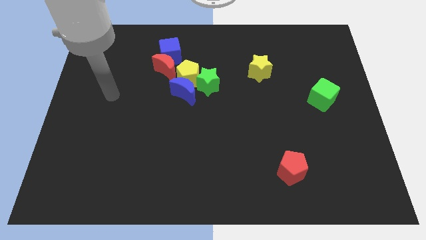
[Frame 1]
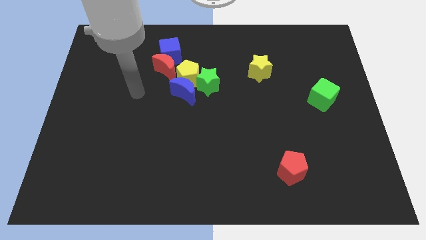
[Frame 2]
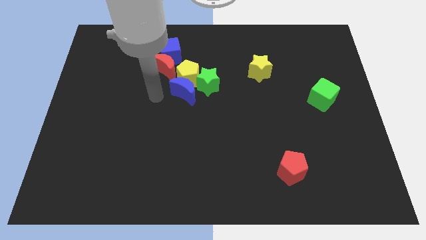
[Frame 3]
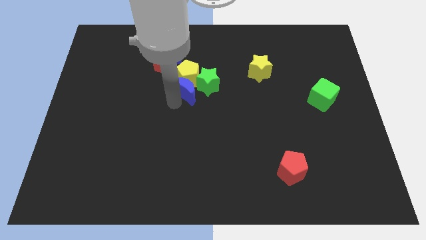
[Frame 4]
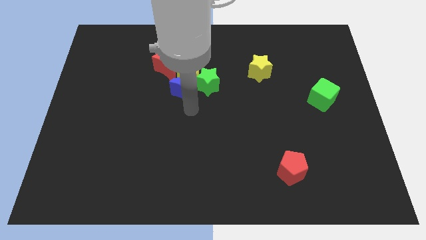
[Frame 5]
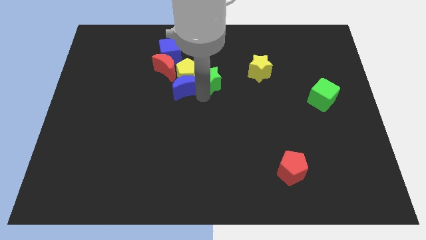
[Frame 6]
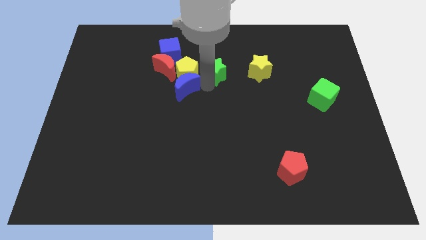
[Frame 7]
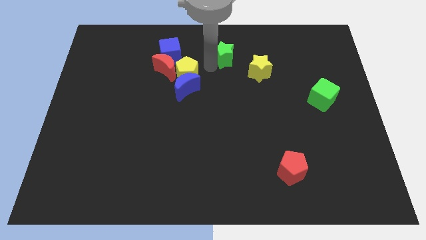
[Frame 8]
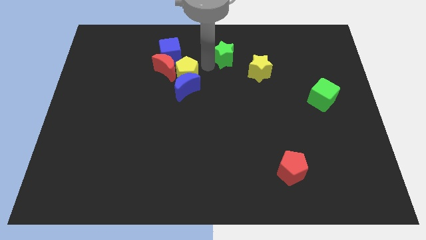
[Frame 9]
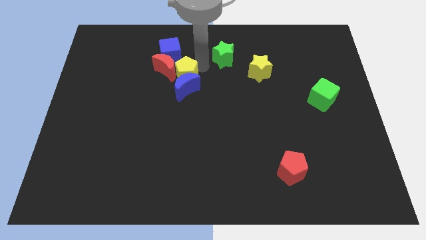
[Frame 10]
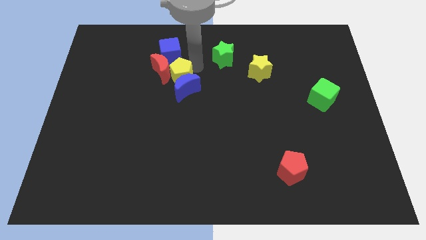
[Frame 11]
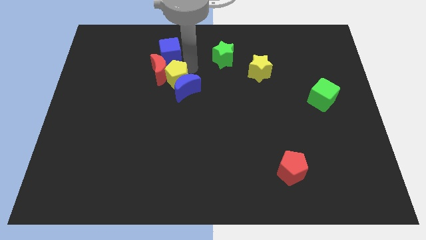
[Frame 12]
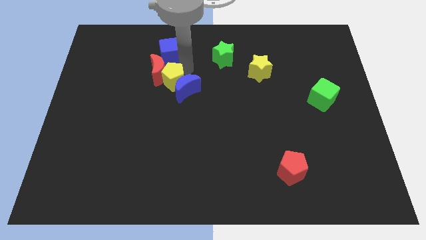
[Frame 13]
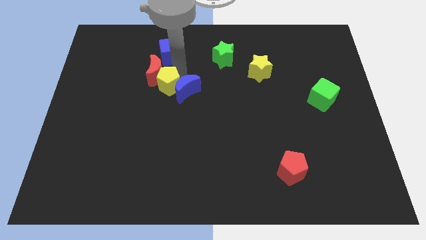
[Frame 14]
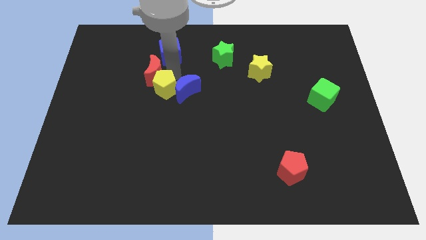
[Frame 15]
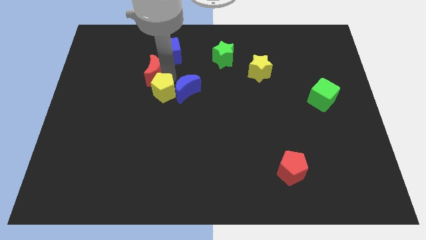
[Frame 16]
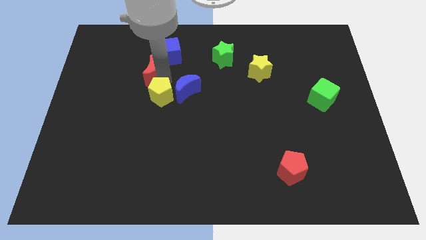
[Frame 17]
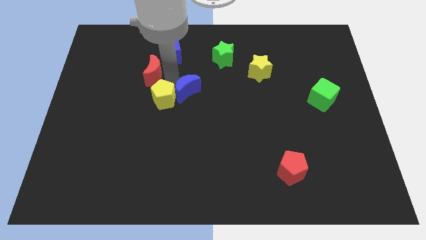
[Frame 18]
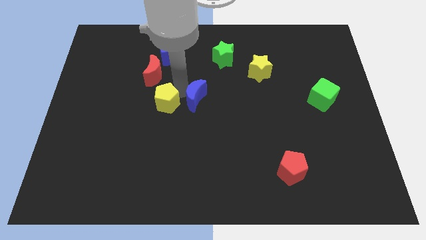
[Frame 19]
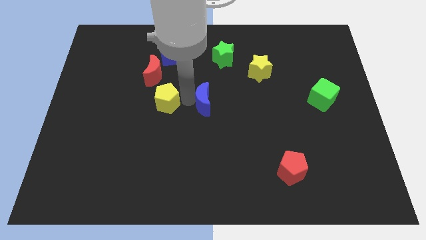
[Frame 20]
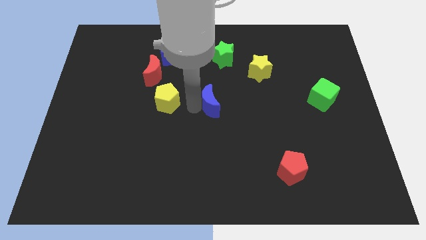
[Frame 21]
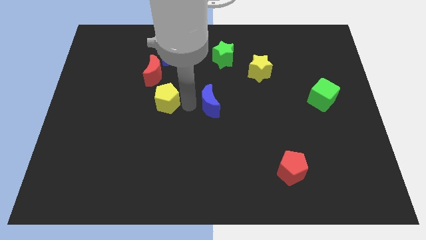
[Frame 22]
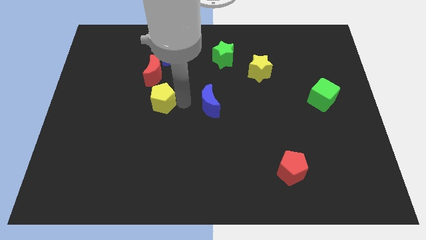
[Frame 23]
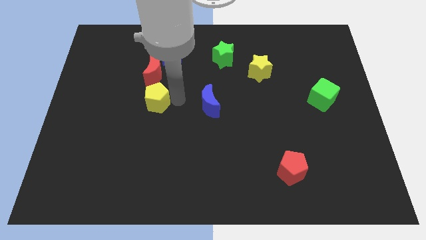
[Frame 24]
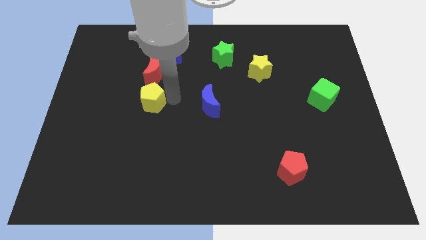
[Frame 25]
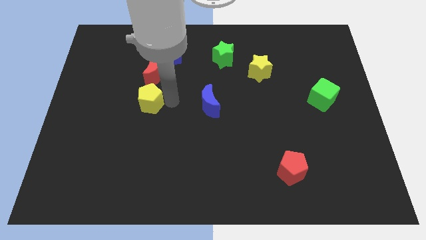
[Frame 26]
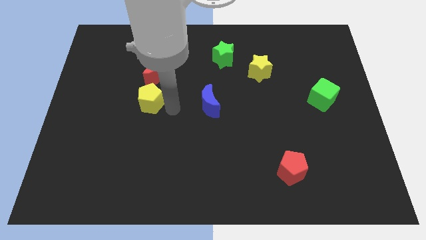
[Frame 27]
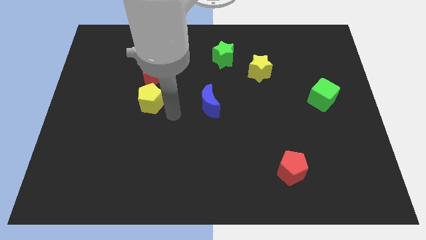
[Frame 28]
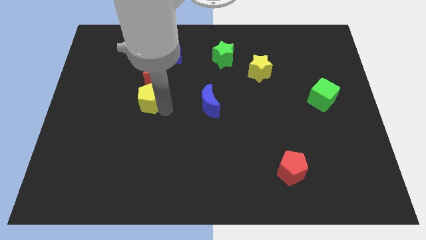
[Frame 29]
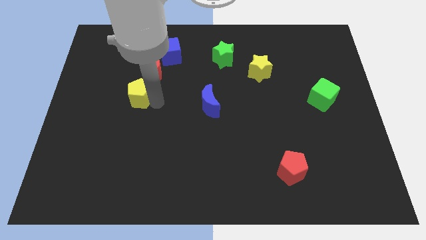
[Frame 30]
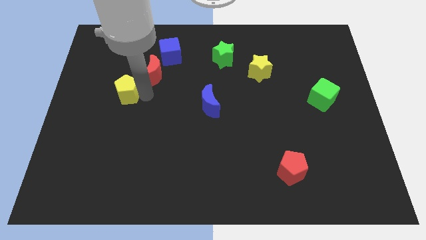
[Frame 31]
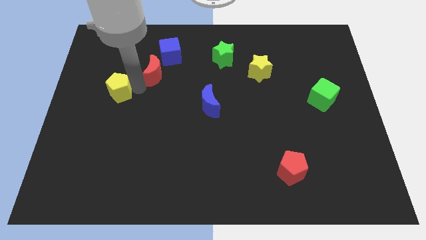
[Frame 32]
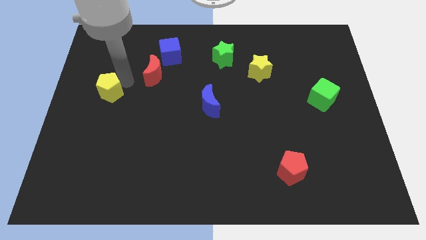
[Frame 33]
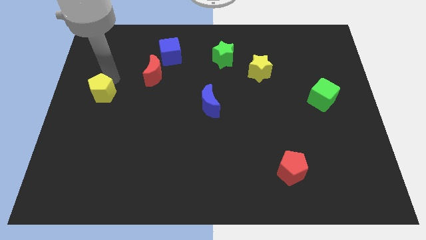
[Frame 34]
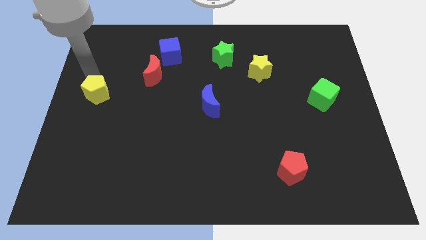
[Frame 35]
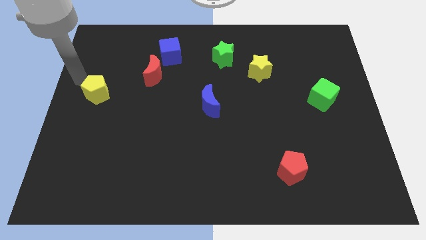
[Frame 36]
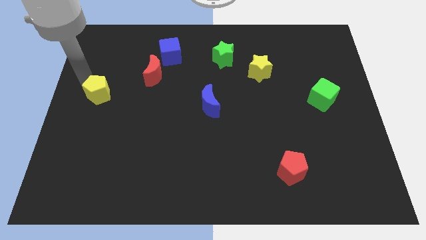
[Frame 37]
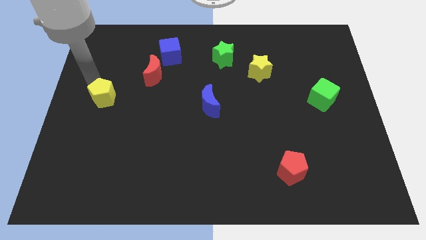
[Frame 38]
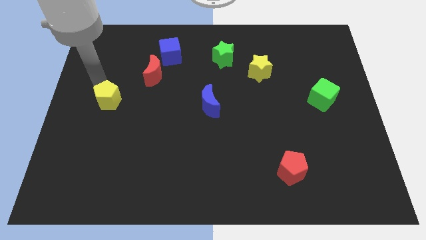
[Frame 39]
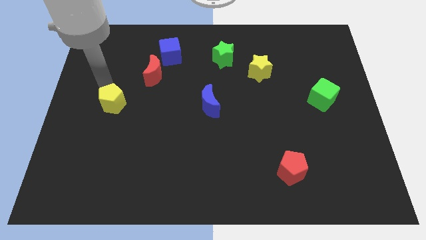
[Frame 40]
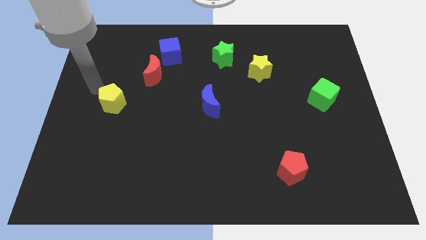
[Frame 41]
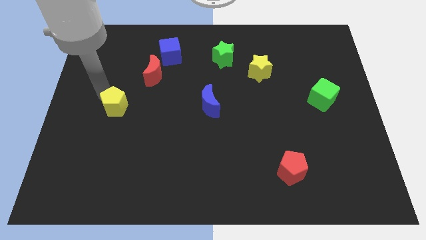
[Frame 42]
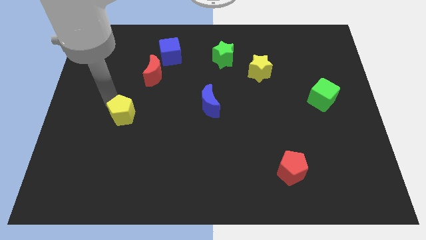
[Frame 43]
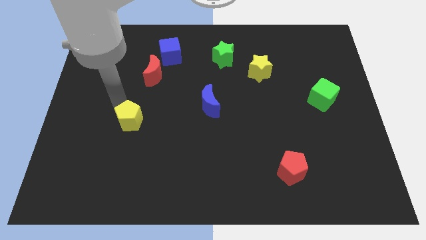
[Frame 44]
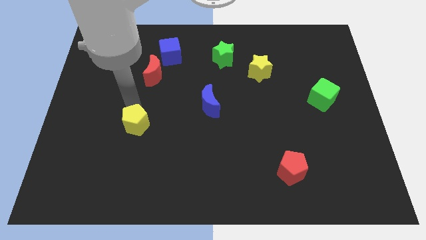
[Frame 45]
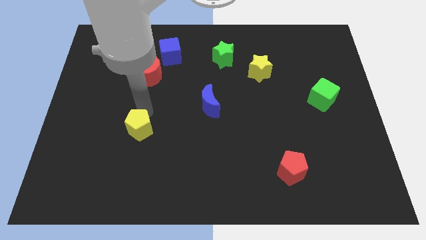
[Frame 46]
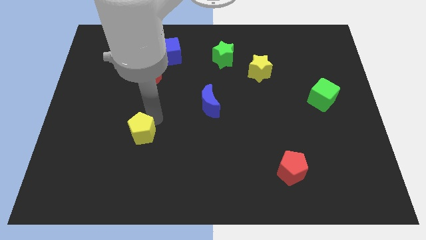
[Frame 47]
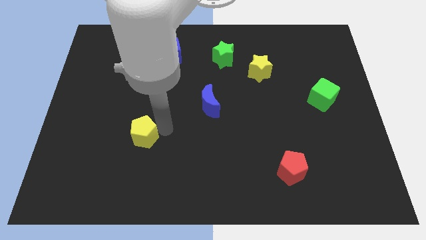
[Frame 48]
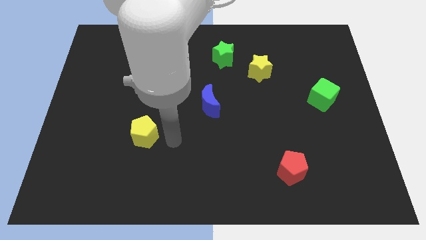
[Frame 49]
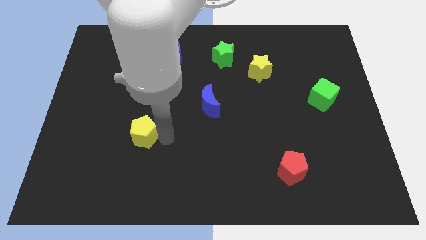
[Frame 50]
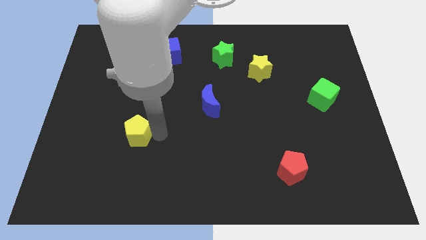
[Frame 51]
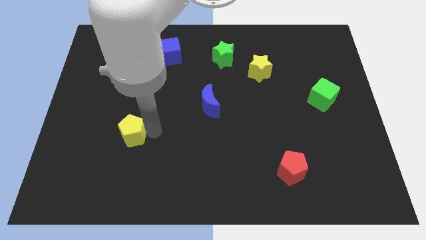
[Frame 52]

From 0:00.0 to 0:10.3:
push the yellow pentagon downwards and to the left diagonally

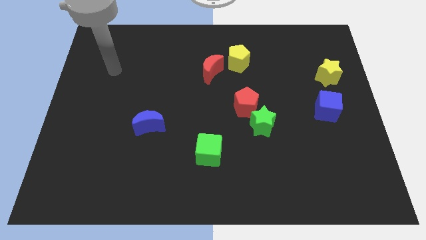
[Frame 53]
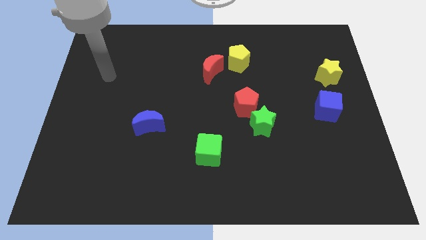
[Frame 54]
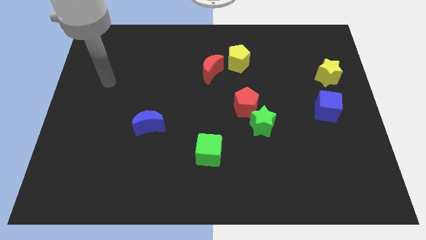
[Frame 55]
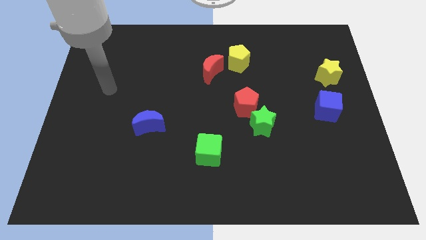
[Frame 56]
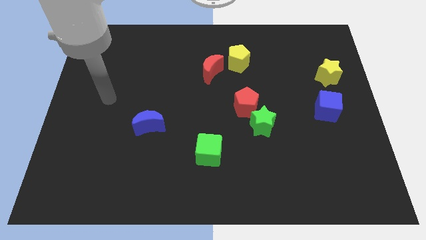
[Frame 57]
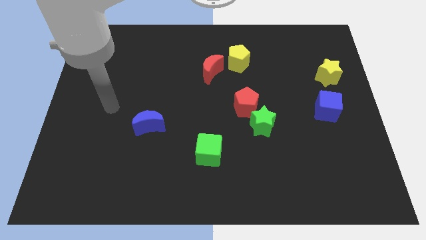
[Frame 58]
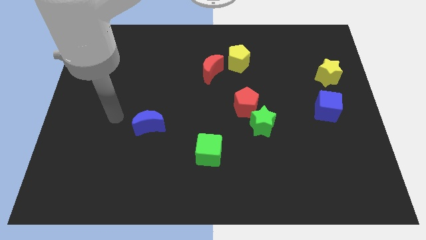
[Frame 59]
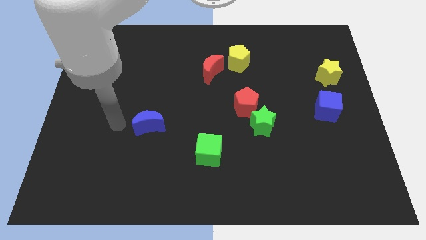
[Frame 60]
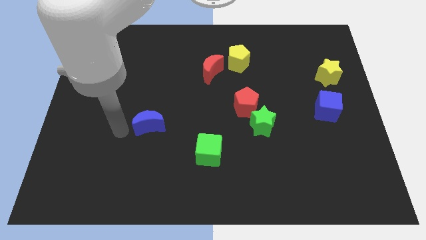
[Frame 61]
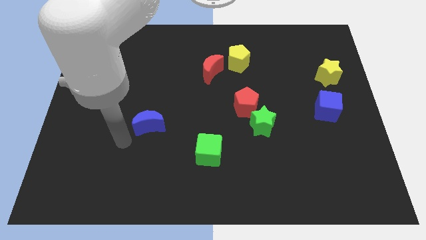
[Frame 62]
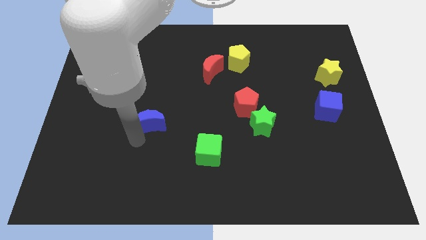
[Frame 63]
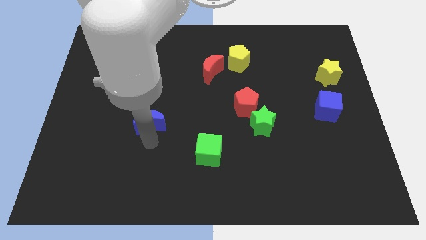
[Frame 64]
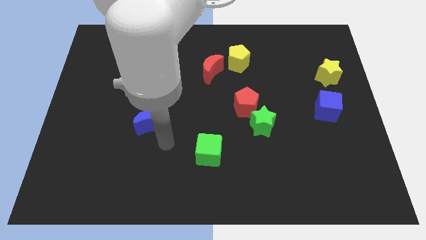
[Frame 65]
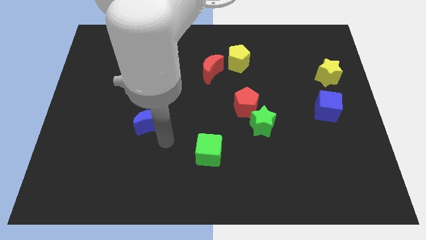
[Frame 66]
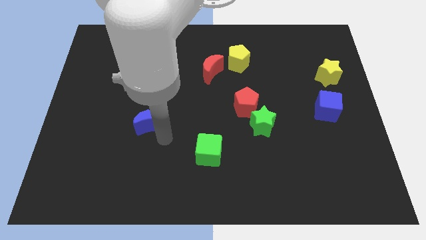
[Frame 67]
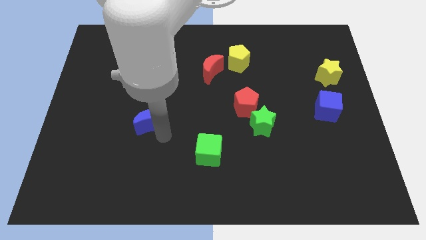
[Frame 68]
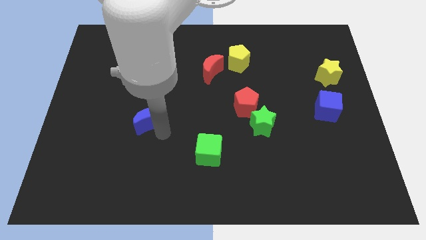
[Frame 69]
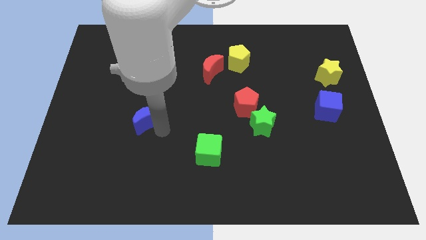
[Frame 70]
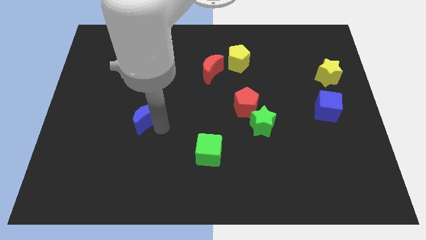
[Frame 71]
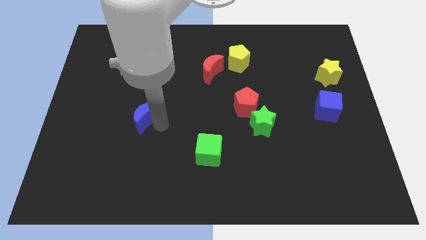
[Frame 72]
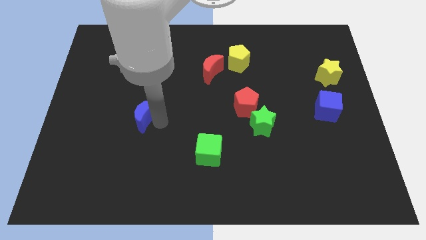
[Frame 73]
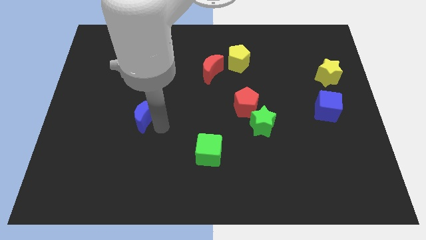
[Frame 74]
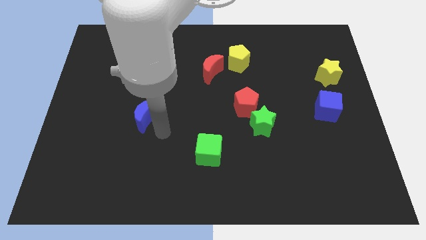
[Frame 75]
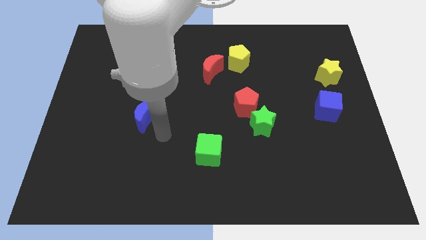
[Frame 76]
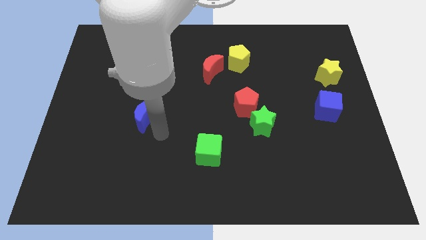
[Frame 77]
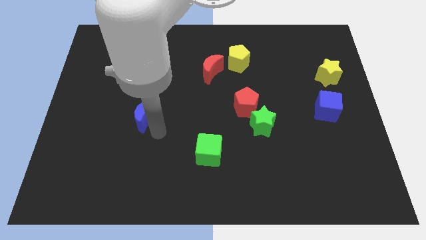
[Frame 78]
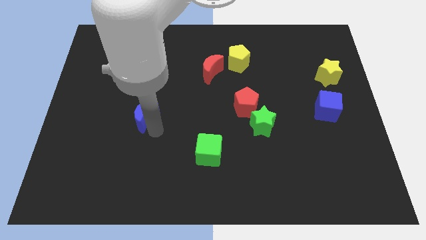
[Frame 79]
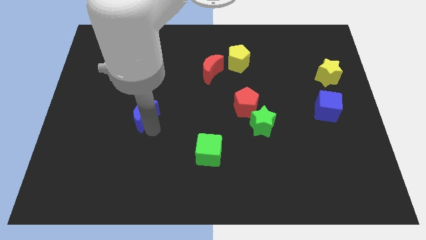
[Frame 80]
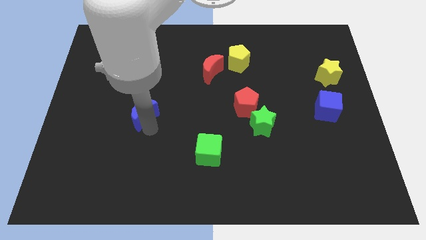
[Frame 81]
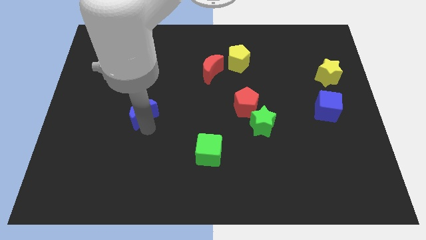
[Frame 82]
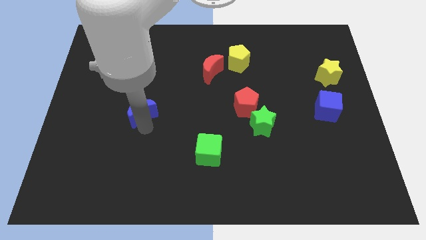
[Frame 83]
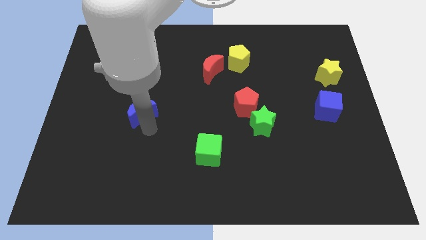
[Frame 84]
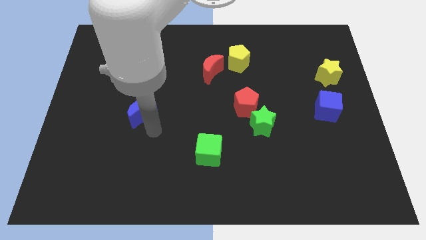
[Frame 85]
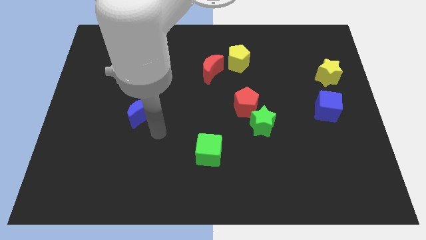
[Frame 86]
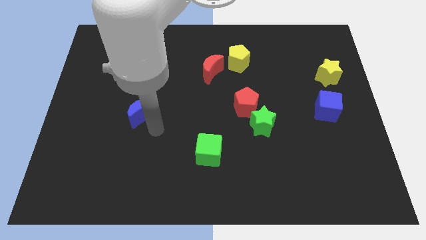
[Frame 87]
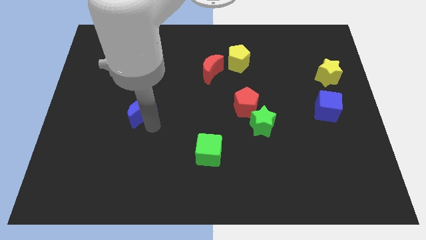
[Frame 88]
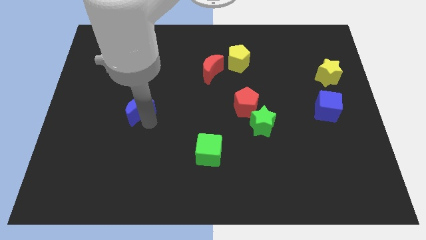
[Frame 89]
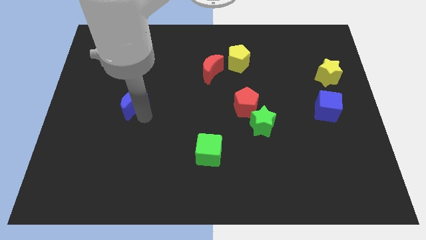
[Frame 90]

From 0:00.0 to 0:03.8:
slightly slide the blue moon up and to the left
